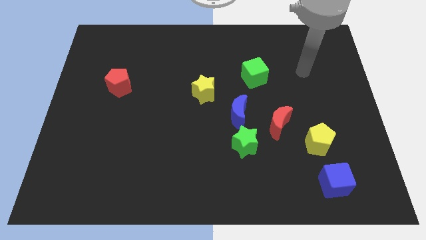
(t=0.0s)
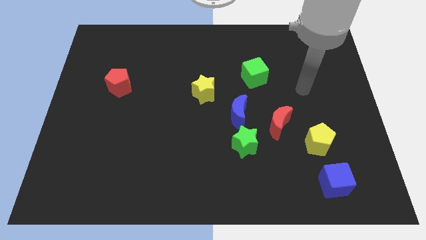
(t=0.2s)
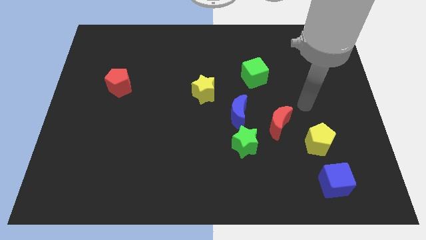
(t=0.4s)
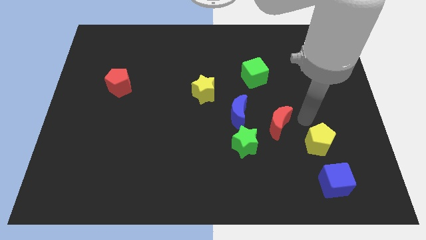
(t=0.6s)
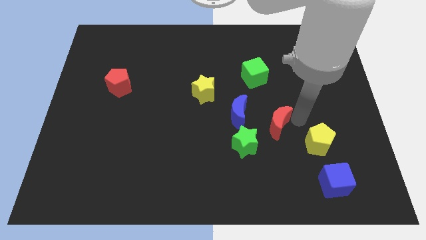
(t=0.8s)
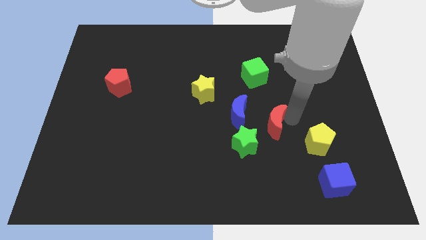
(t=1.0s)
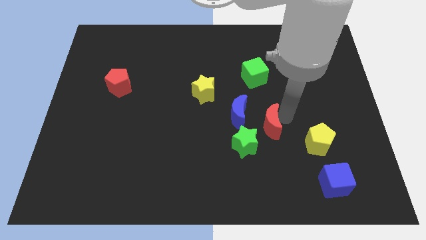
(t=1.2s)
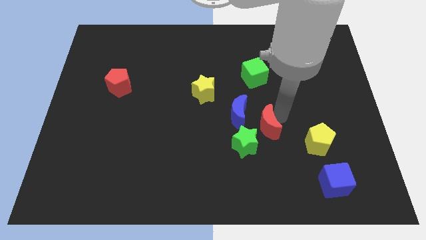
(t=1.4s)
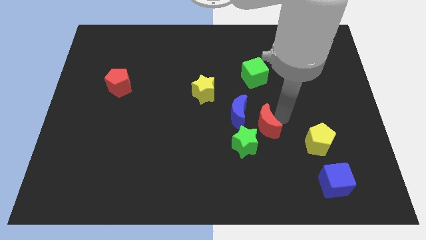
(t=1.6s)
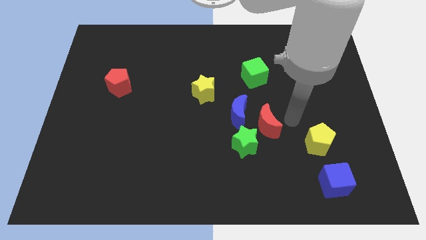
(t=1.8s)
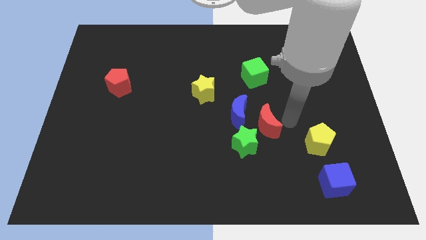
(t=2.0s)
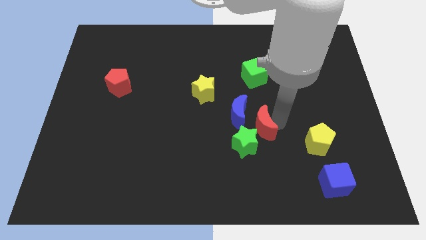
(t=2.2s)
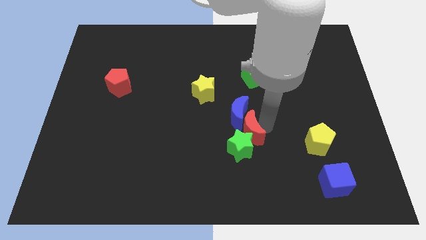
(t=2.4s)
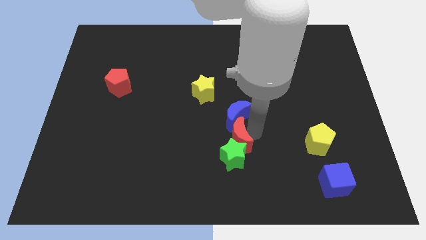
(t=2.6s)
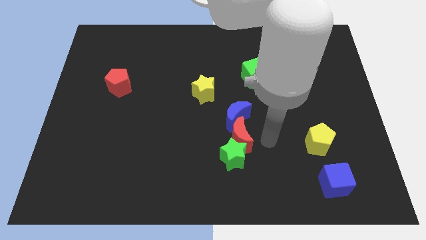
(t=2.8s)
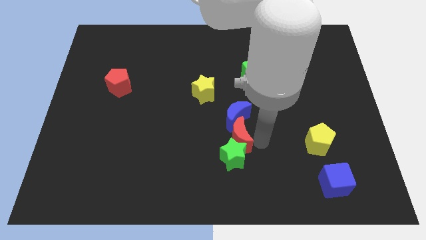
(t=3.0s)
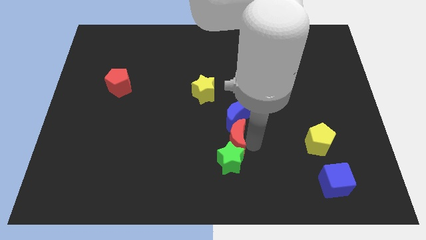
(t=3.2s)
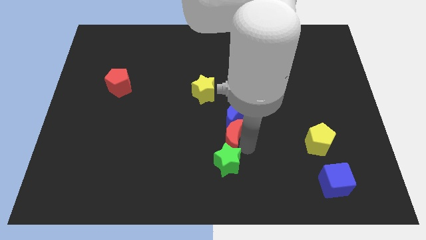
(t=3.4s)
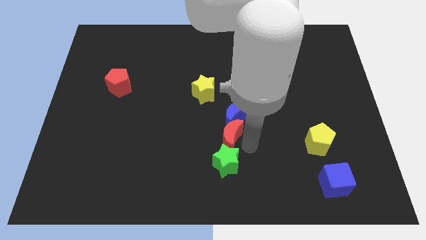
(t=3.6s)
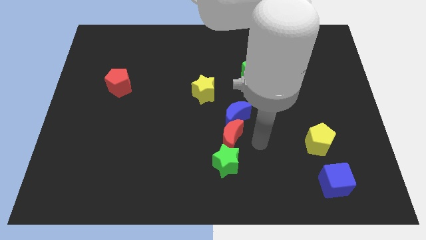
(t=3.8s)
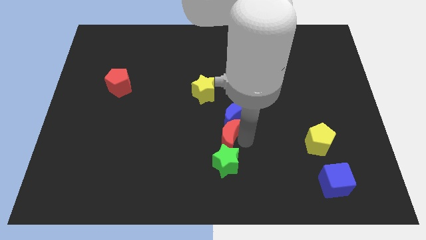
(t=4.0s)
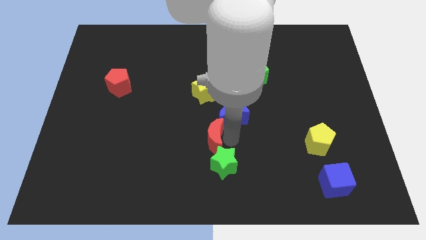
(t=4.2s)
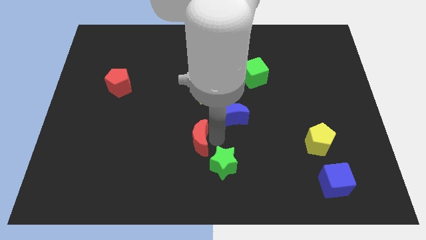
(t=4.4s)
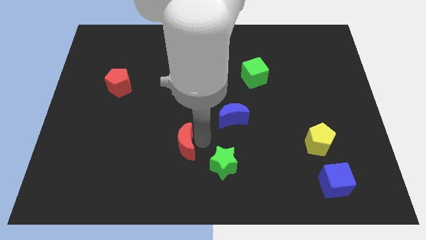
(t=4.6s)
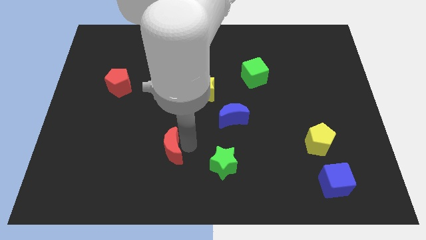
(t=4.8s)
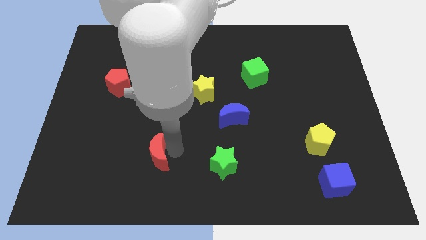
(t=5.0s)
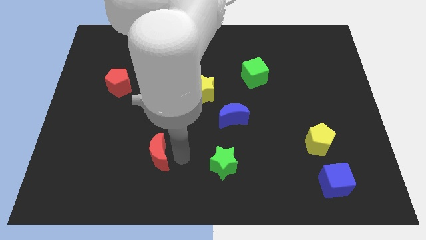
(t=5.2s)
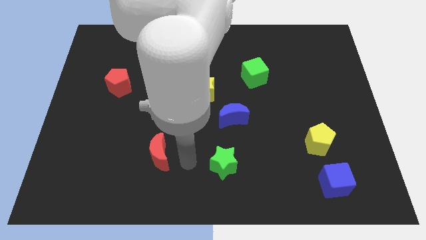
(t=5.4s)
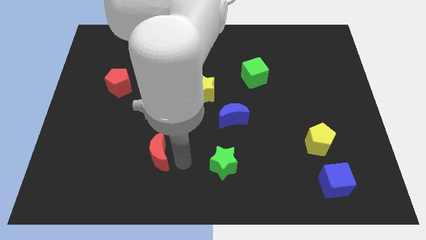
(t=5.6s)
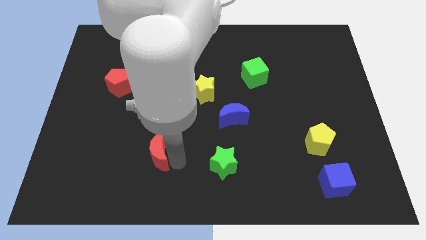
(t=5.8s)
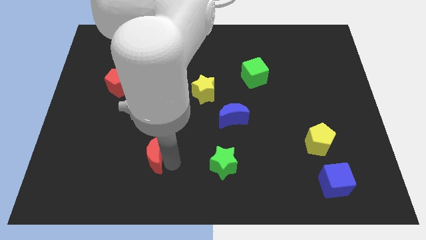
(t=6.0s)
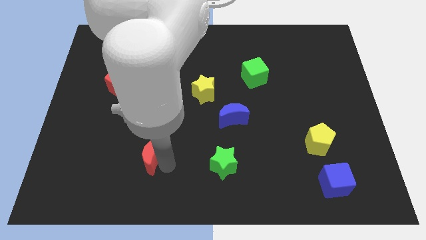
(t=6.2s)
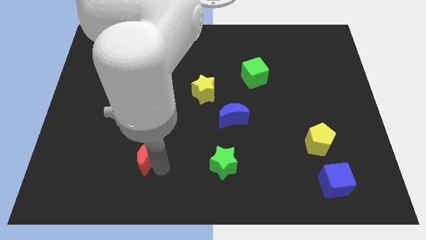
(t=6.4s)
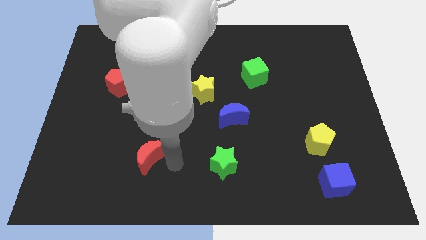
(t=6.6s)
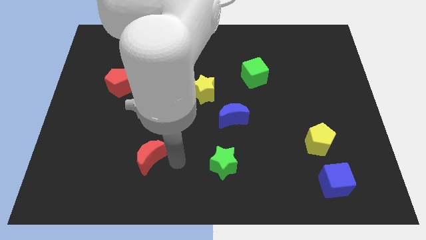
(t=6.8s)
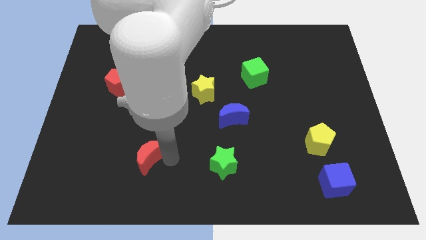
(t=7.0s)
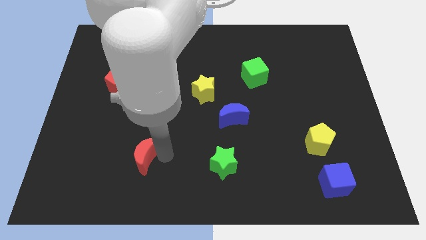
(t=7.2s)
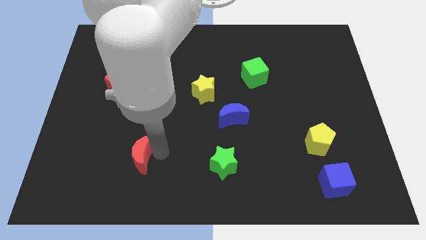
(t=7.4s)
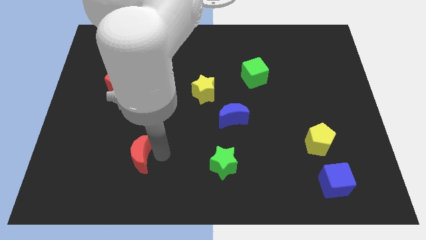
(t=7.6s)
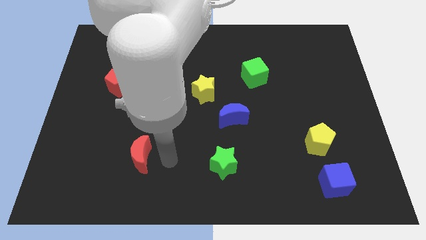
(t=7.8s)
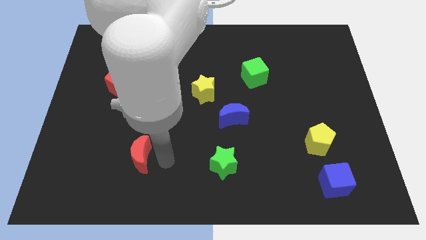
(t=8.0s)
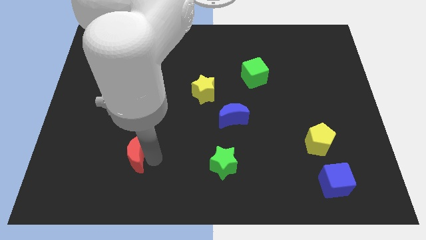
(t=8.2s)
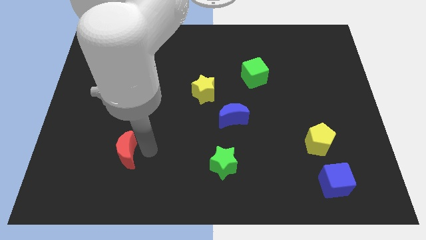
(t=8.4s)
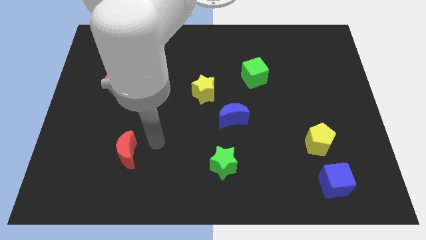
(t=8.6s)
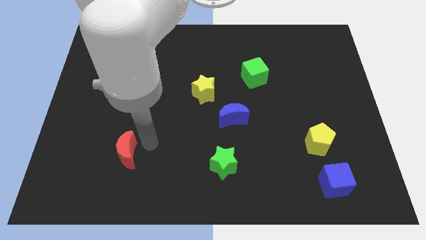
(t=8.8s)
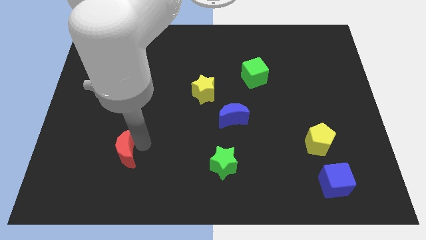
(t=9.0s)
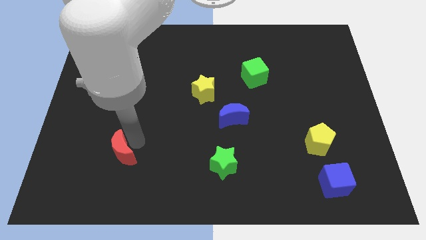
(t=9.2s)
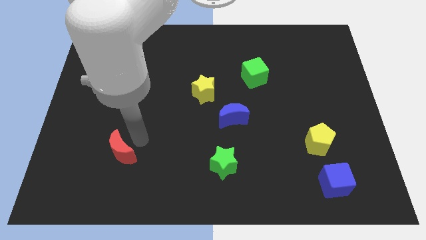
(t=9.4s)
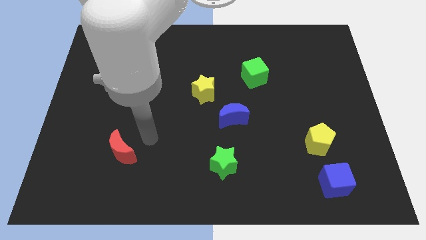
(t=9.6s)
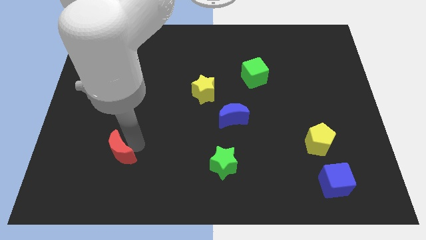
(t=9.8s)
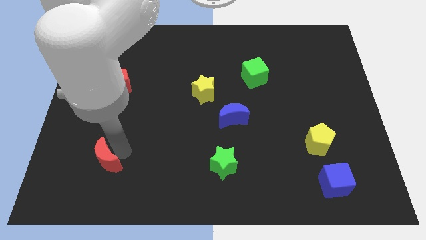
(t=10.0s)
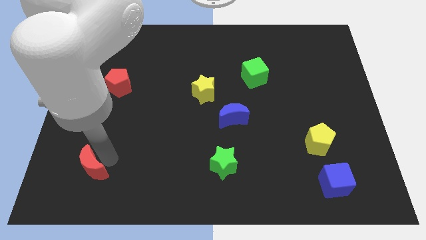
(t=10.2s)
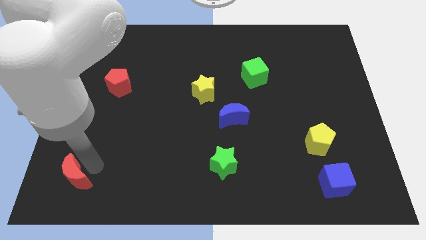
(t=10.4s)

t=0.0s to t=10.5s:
put the red moon to the bottom left

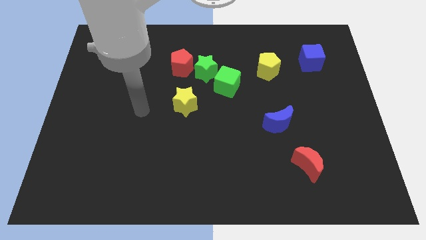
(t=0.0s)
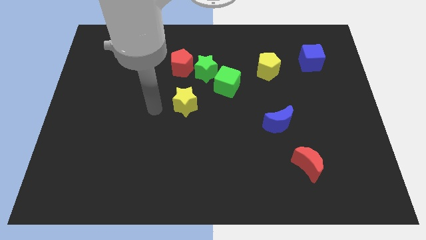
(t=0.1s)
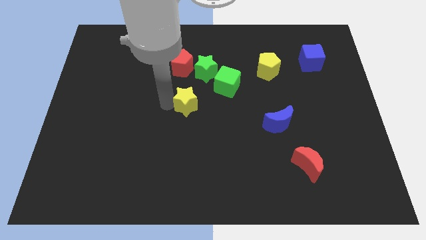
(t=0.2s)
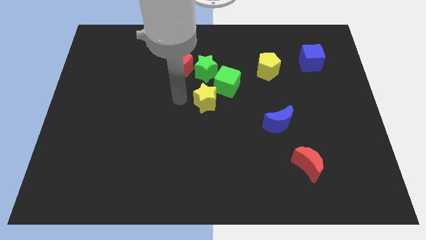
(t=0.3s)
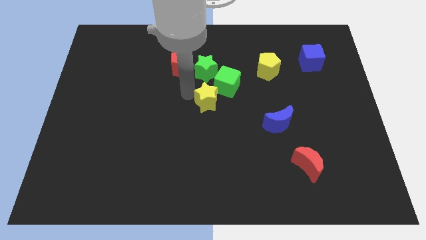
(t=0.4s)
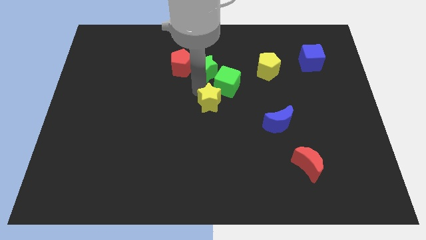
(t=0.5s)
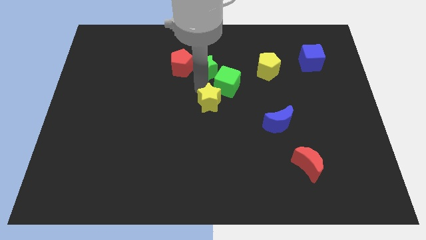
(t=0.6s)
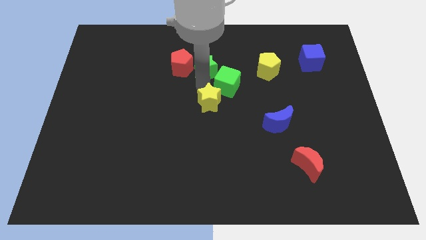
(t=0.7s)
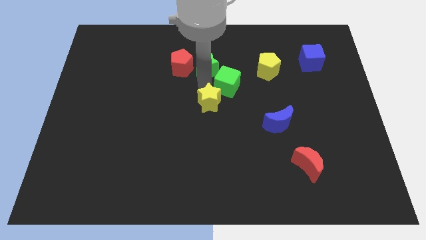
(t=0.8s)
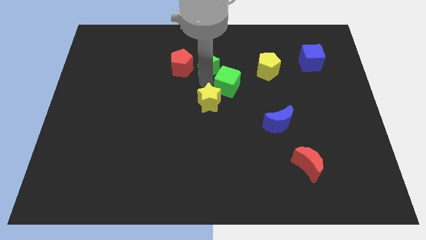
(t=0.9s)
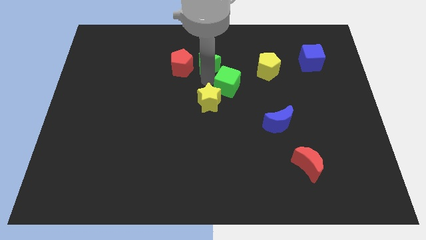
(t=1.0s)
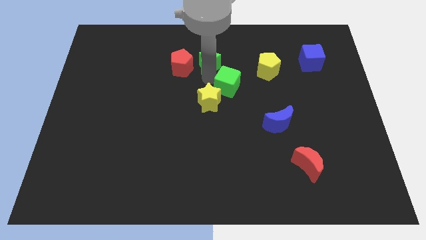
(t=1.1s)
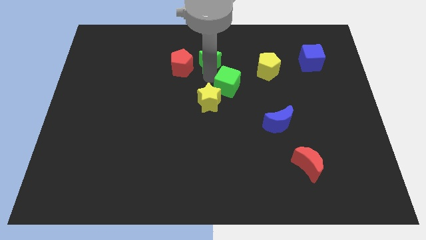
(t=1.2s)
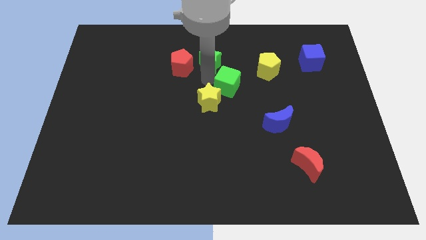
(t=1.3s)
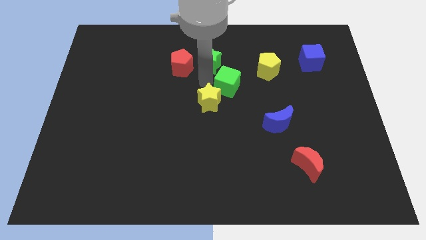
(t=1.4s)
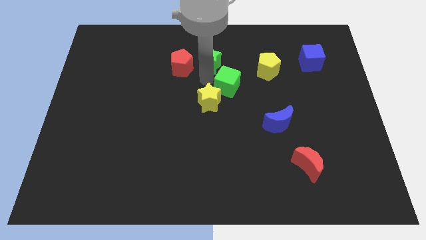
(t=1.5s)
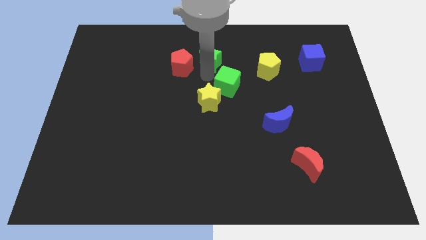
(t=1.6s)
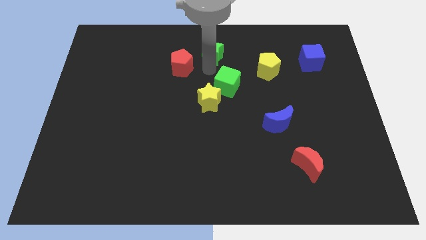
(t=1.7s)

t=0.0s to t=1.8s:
put the green star to the top

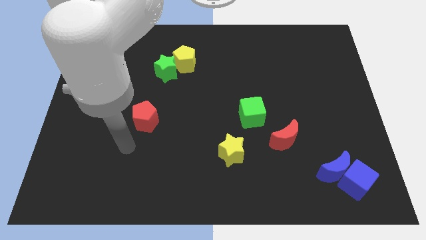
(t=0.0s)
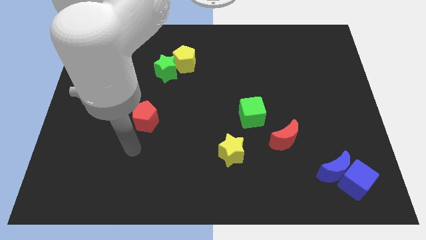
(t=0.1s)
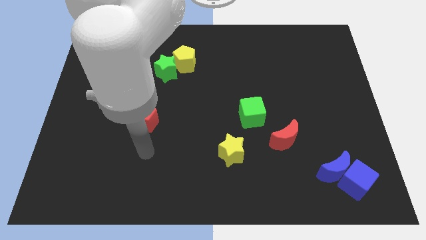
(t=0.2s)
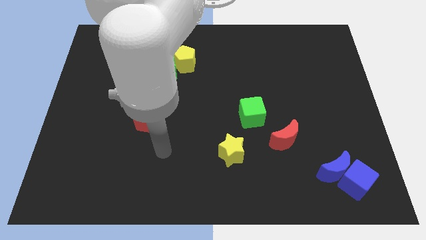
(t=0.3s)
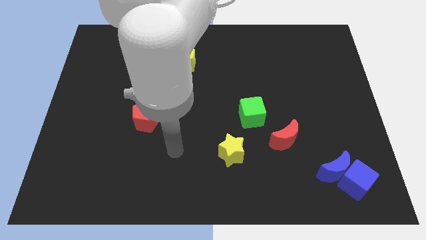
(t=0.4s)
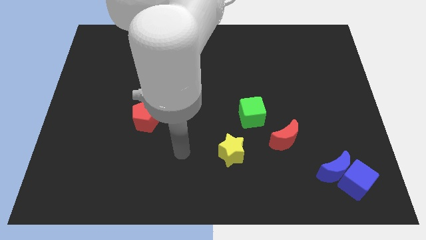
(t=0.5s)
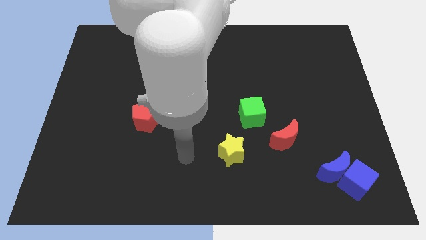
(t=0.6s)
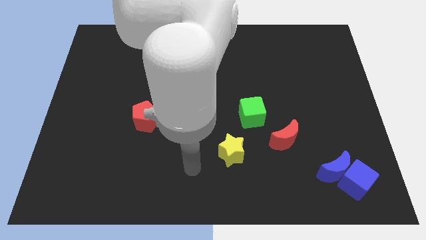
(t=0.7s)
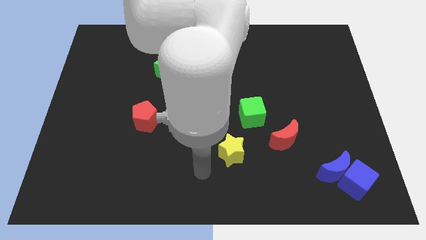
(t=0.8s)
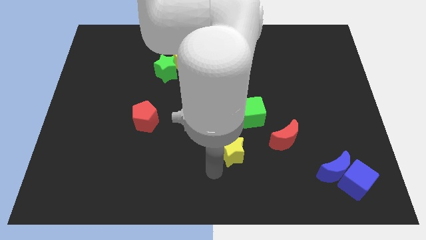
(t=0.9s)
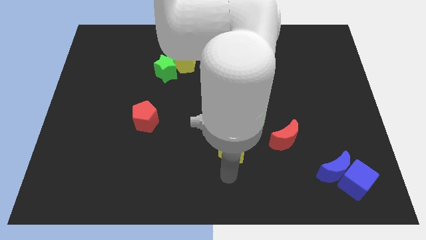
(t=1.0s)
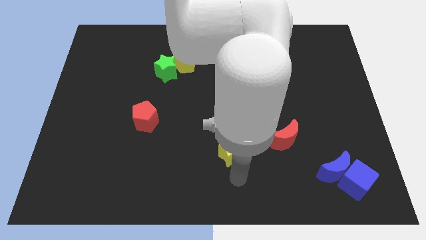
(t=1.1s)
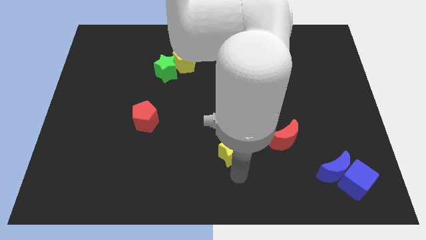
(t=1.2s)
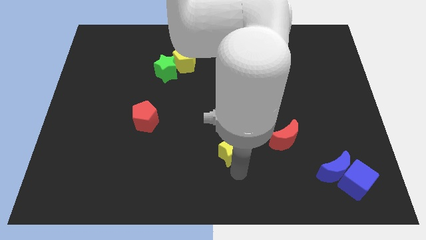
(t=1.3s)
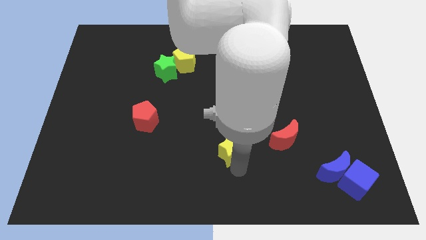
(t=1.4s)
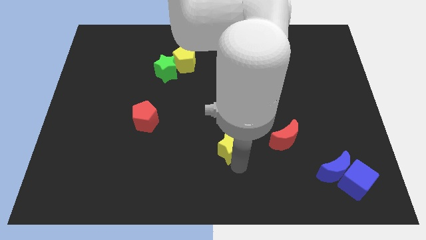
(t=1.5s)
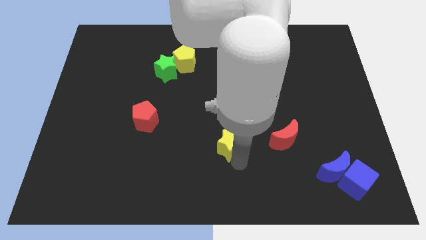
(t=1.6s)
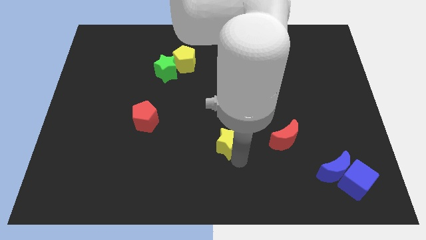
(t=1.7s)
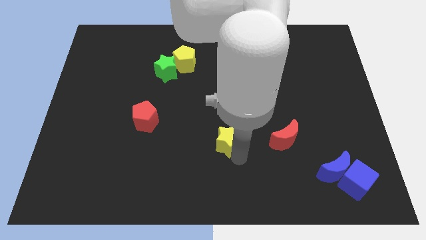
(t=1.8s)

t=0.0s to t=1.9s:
push the yellow star to the middle
